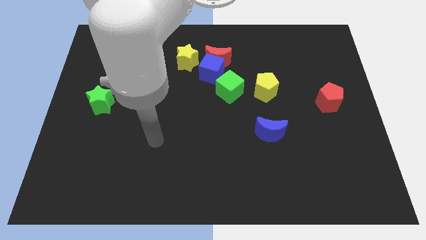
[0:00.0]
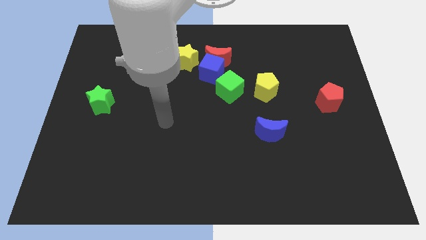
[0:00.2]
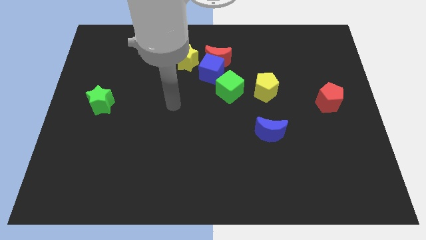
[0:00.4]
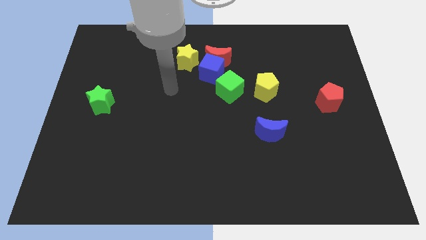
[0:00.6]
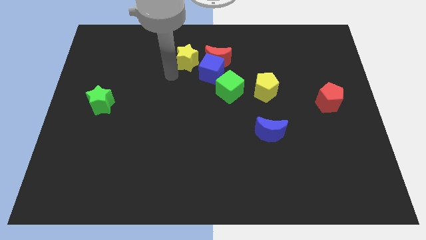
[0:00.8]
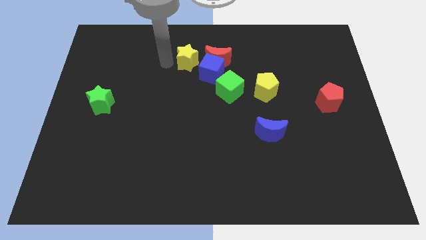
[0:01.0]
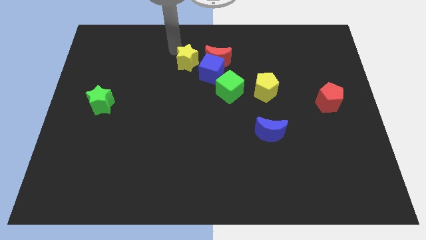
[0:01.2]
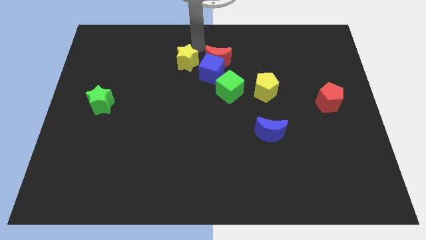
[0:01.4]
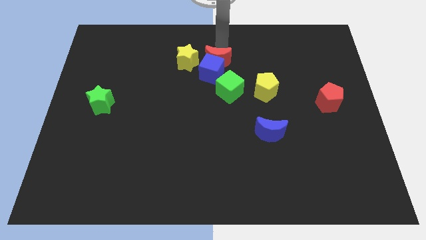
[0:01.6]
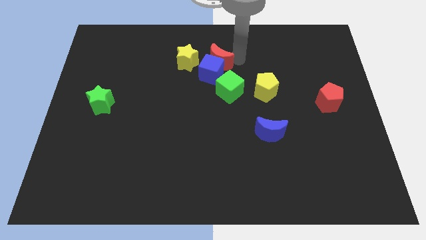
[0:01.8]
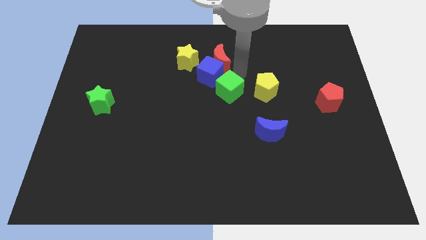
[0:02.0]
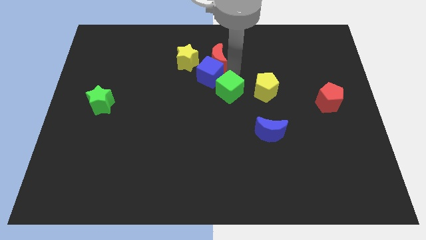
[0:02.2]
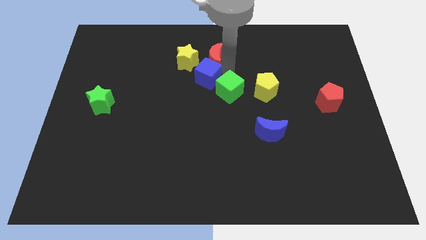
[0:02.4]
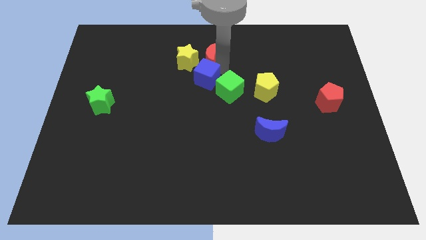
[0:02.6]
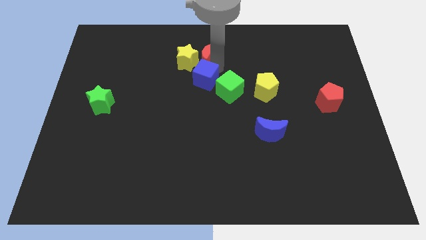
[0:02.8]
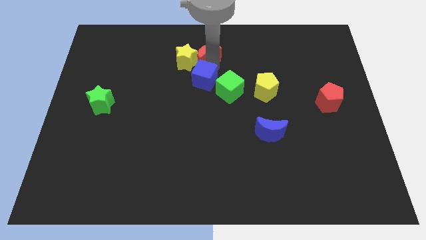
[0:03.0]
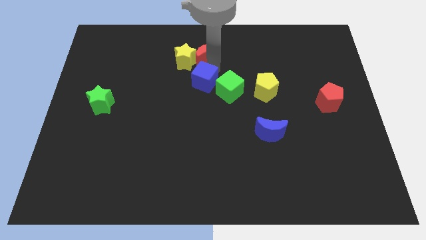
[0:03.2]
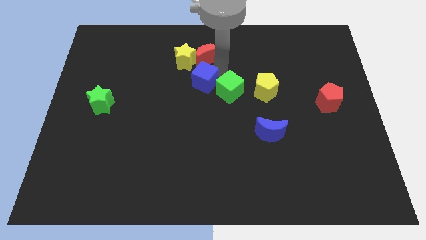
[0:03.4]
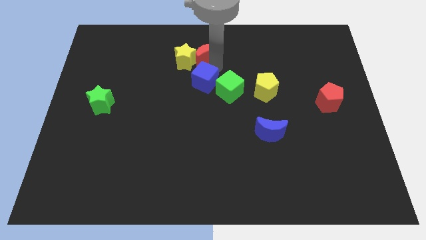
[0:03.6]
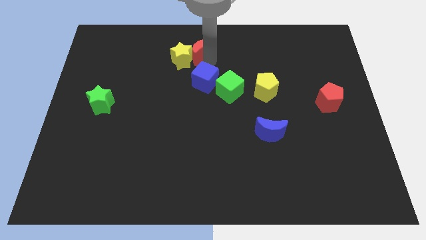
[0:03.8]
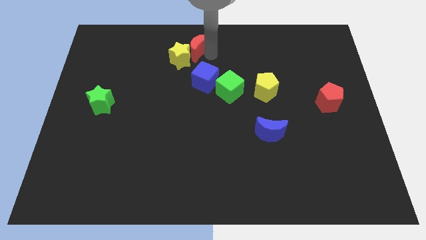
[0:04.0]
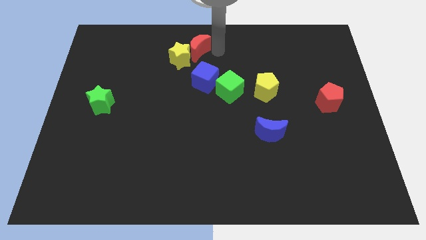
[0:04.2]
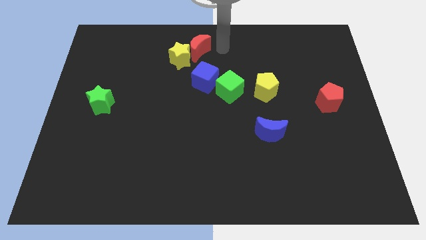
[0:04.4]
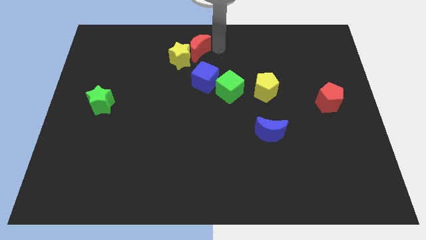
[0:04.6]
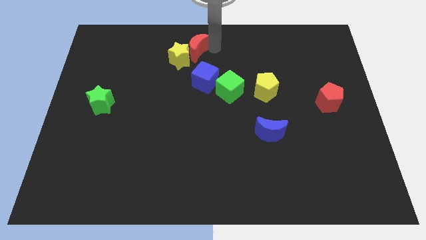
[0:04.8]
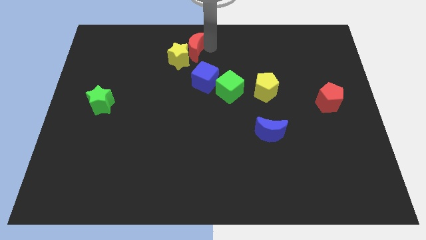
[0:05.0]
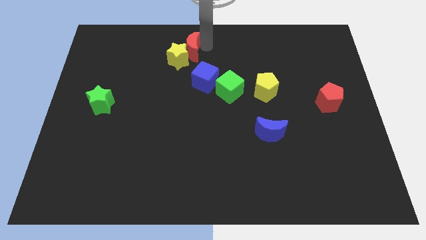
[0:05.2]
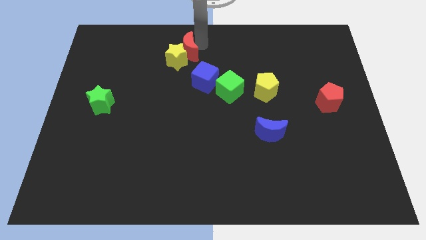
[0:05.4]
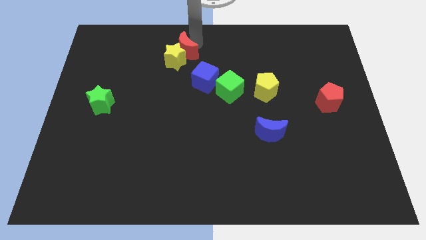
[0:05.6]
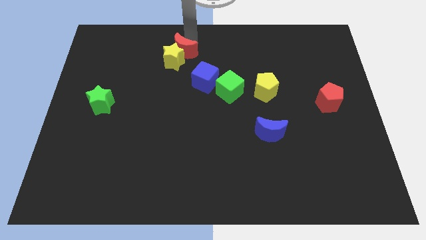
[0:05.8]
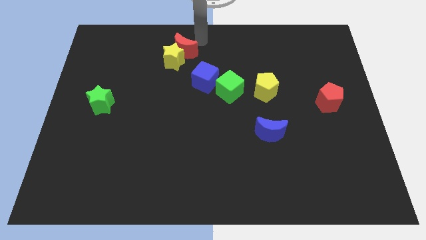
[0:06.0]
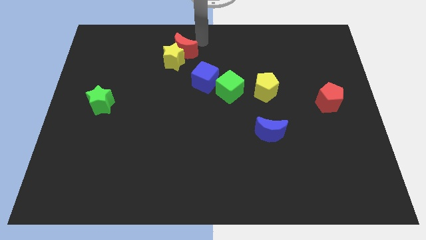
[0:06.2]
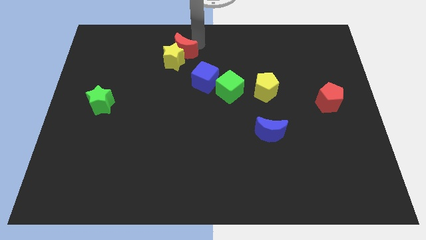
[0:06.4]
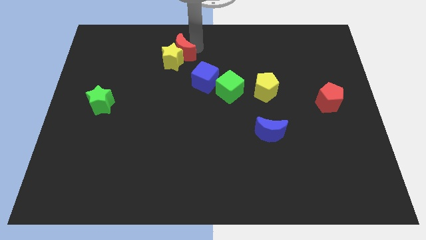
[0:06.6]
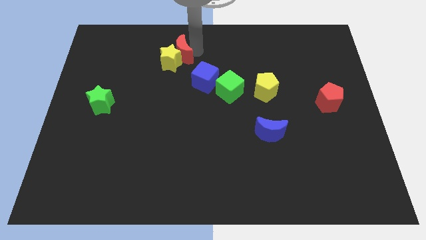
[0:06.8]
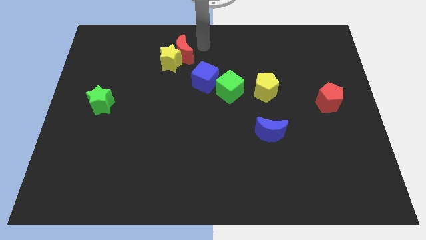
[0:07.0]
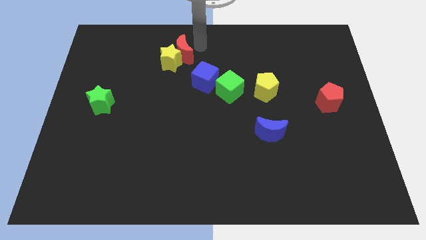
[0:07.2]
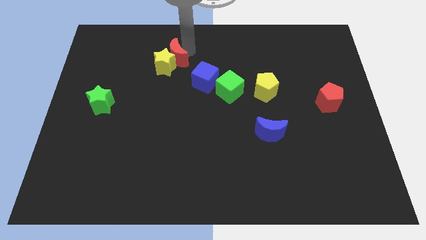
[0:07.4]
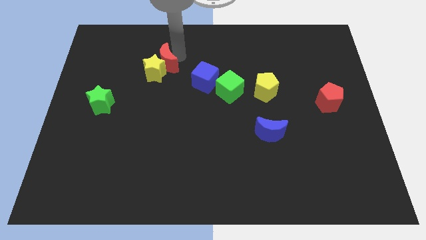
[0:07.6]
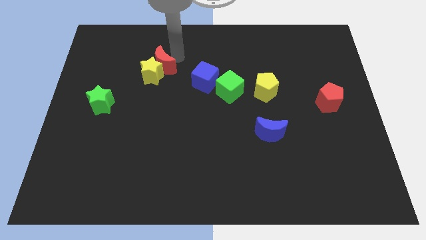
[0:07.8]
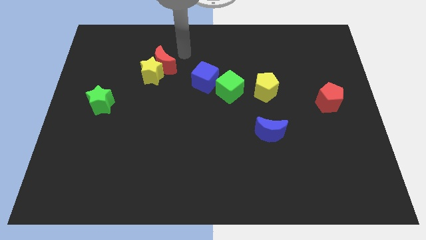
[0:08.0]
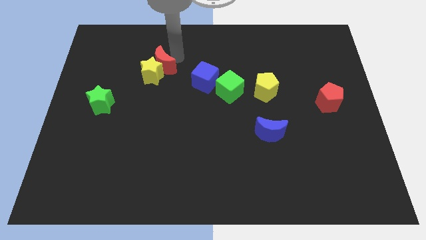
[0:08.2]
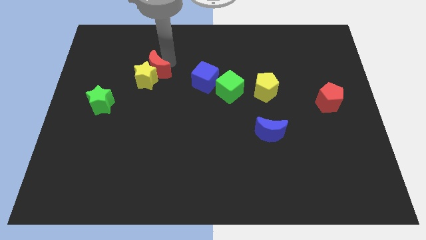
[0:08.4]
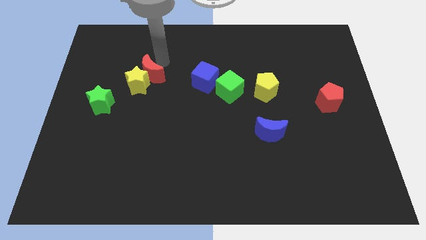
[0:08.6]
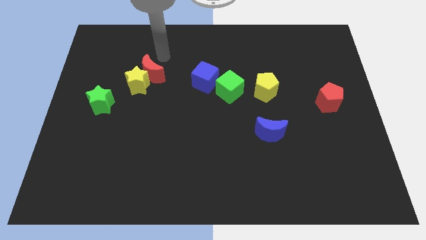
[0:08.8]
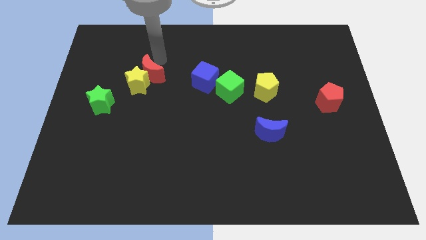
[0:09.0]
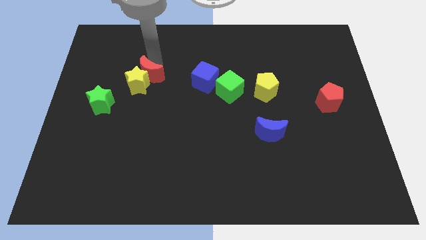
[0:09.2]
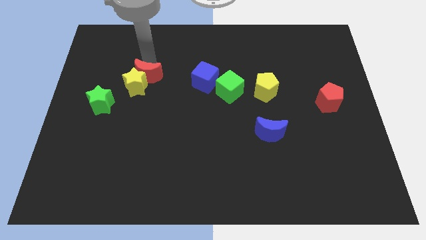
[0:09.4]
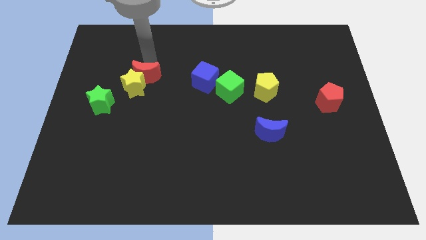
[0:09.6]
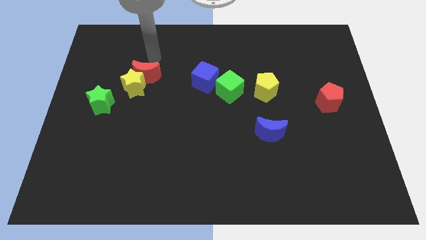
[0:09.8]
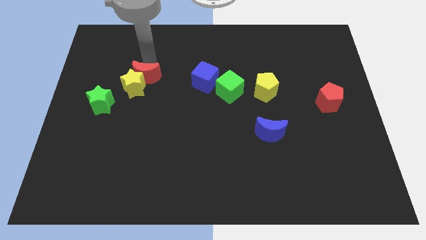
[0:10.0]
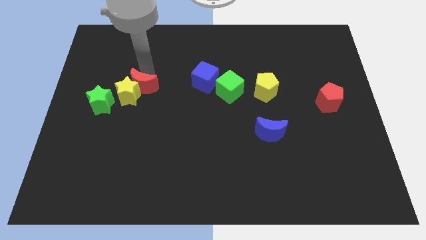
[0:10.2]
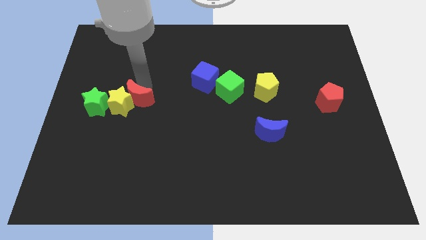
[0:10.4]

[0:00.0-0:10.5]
move the red moon downwards and left

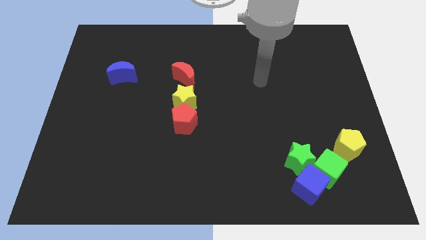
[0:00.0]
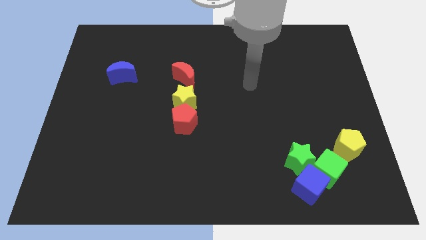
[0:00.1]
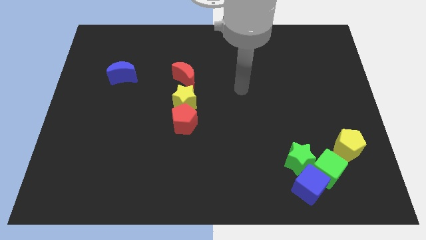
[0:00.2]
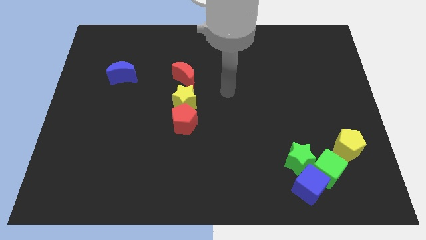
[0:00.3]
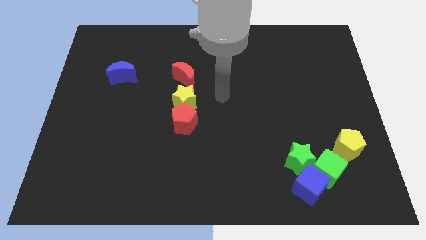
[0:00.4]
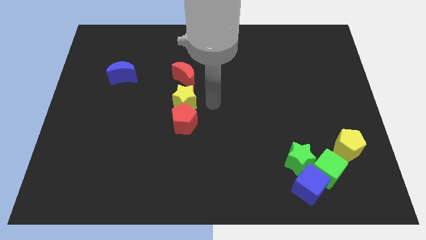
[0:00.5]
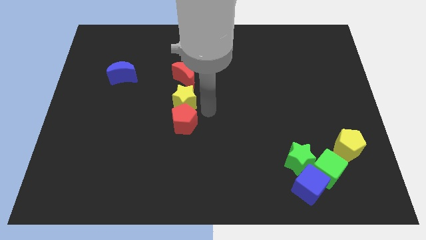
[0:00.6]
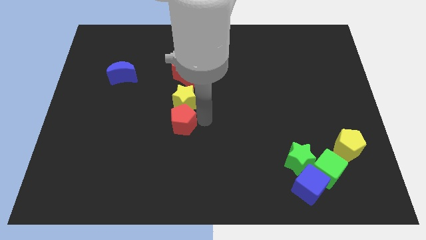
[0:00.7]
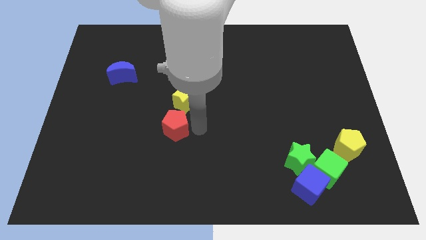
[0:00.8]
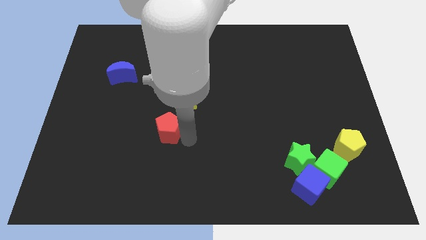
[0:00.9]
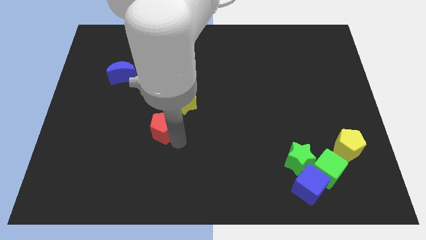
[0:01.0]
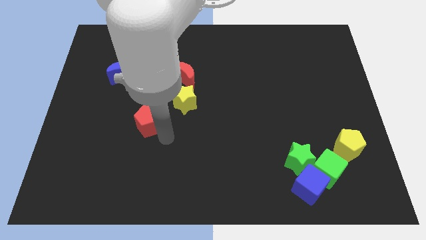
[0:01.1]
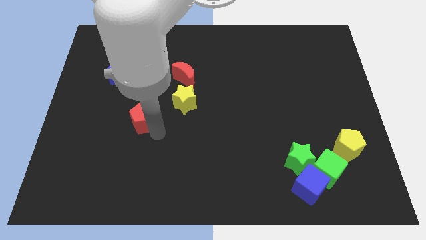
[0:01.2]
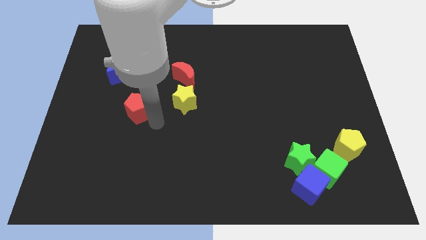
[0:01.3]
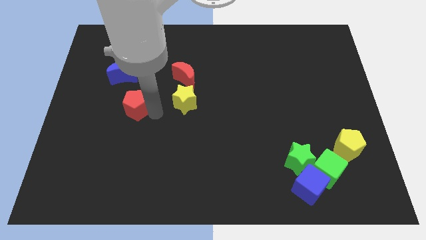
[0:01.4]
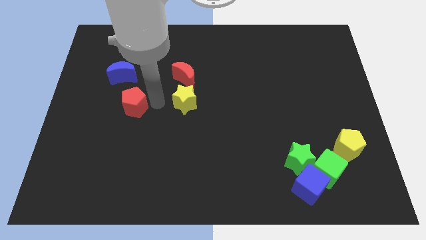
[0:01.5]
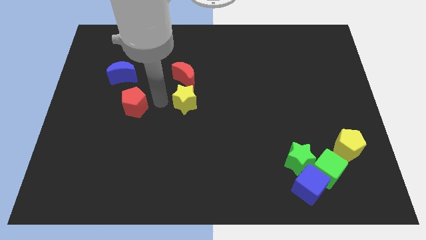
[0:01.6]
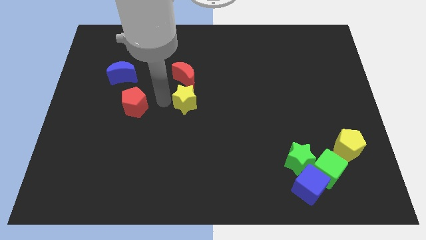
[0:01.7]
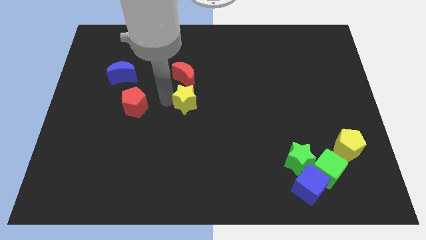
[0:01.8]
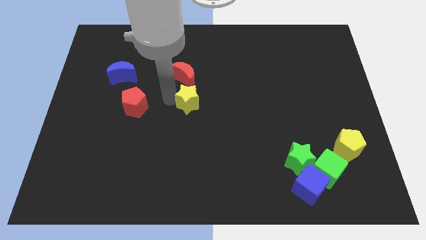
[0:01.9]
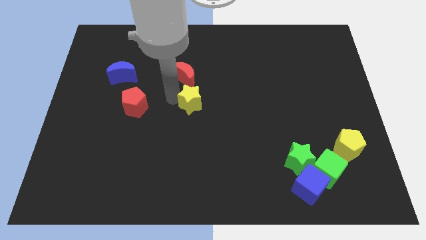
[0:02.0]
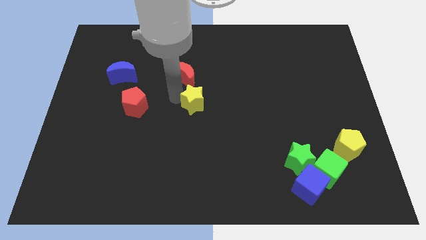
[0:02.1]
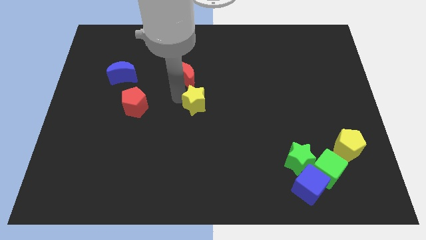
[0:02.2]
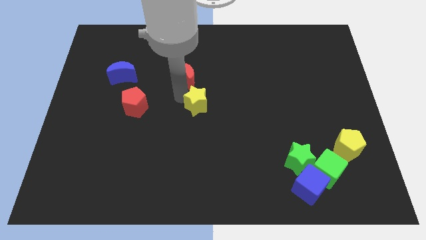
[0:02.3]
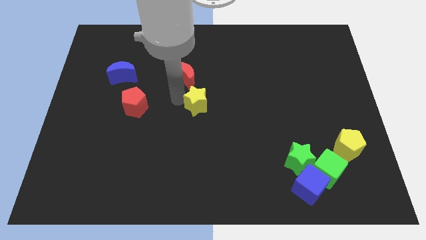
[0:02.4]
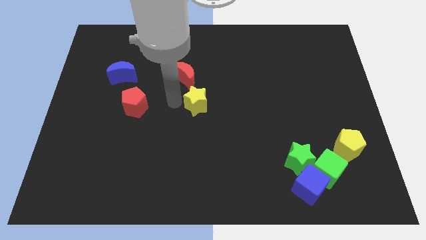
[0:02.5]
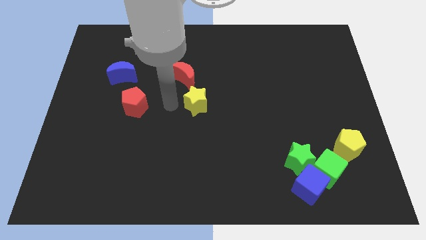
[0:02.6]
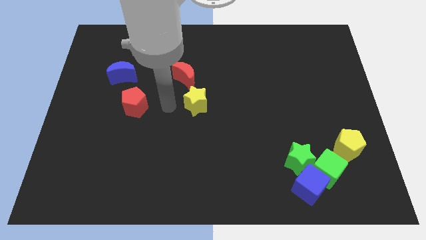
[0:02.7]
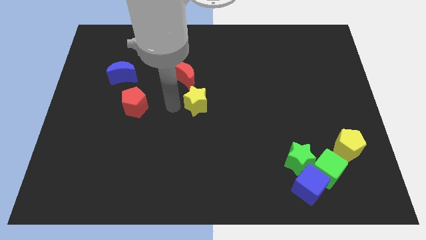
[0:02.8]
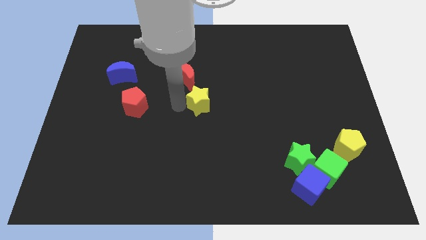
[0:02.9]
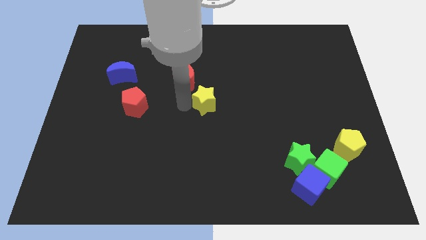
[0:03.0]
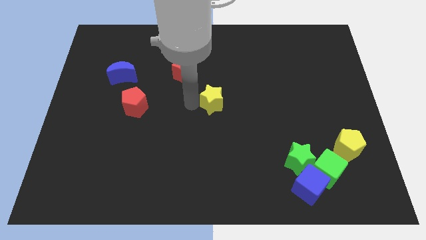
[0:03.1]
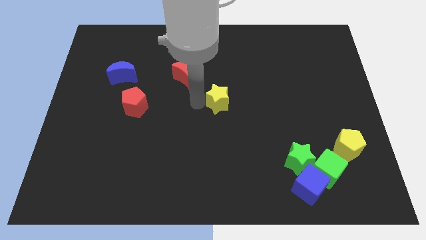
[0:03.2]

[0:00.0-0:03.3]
push the yellow star a little to the right

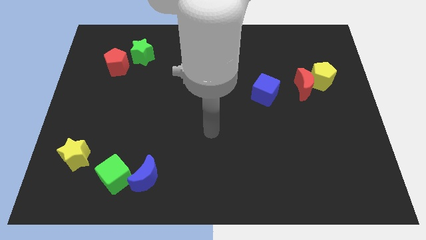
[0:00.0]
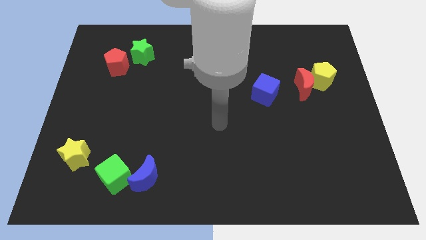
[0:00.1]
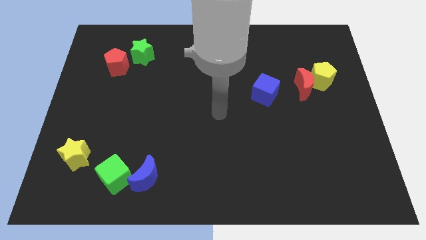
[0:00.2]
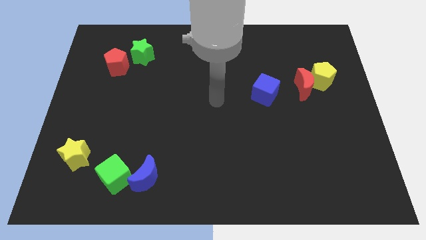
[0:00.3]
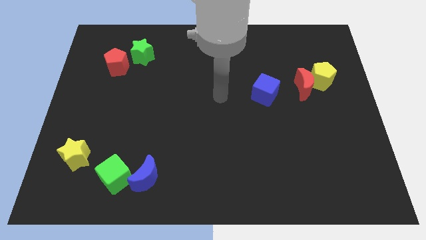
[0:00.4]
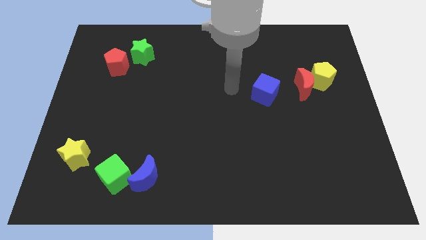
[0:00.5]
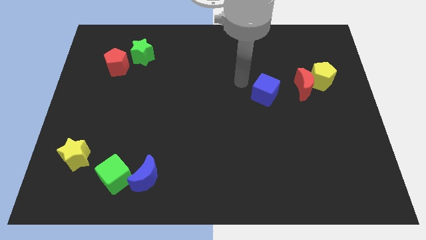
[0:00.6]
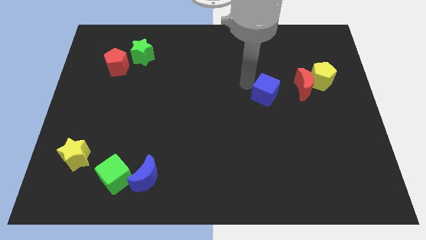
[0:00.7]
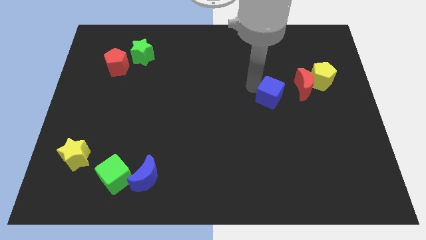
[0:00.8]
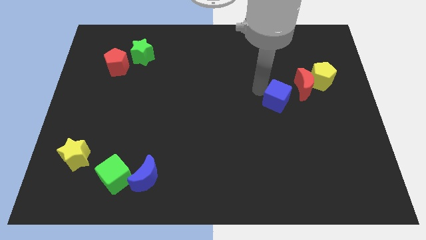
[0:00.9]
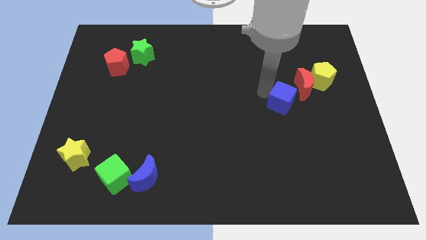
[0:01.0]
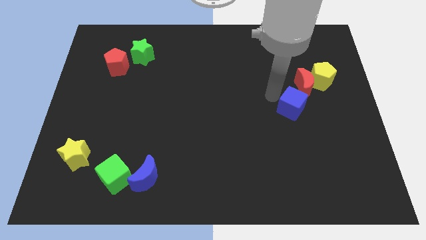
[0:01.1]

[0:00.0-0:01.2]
push the blue cube a bit down and to the right
